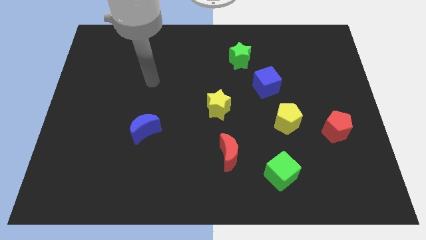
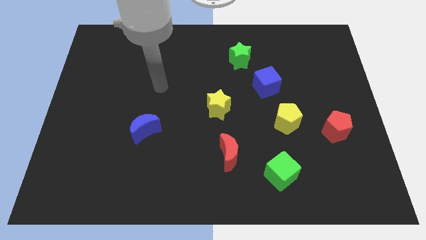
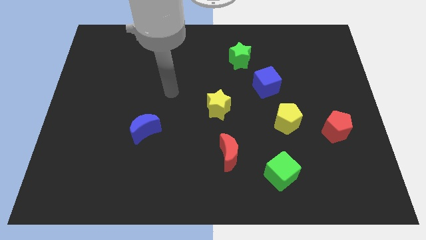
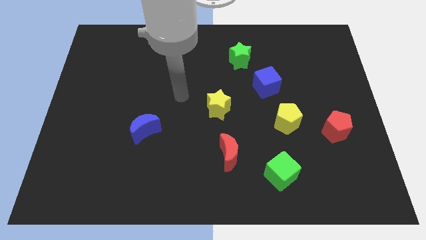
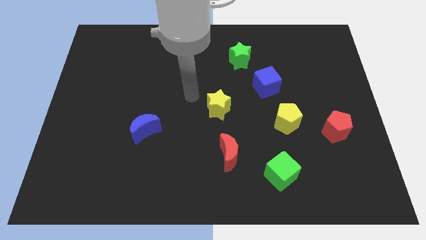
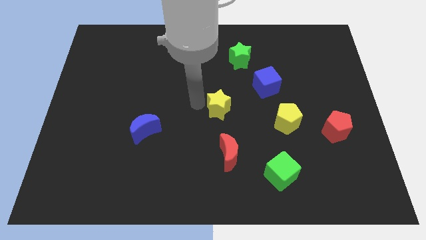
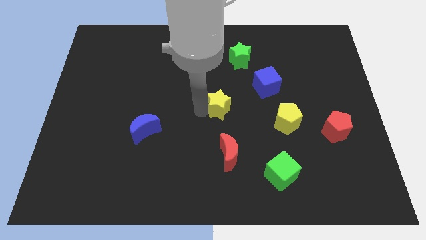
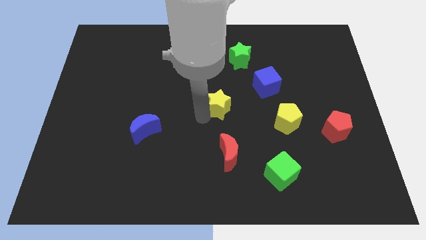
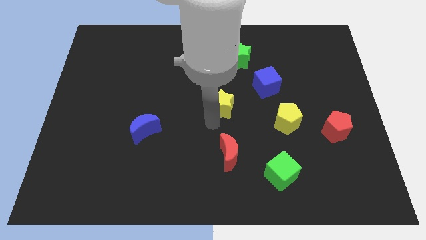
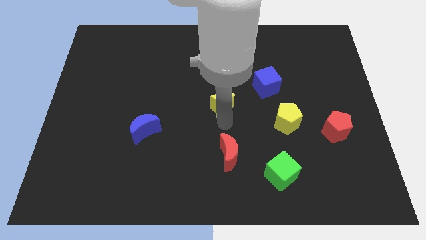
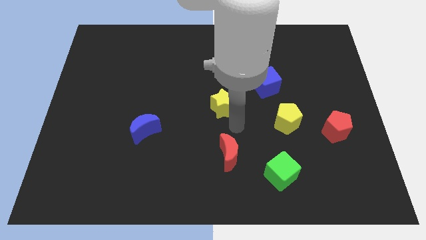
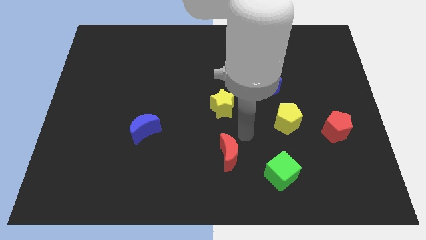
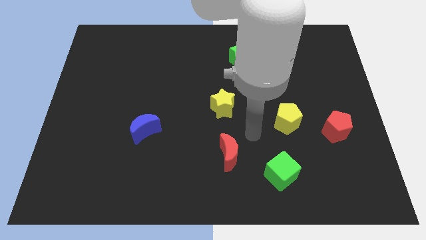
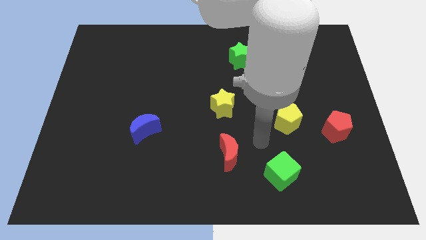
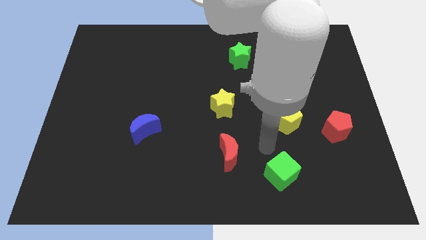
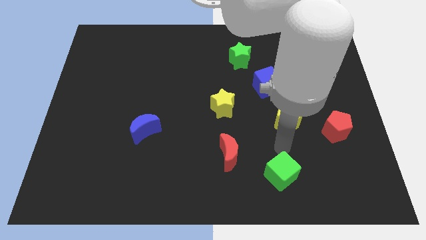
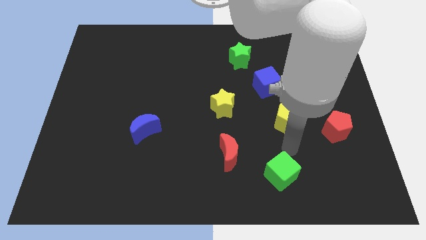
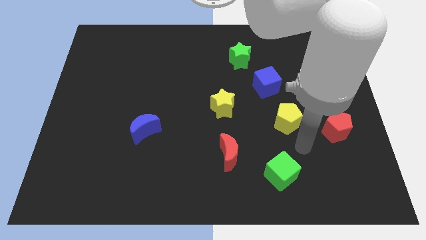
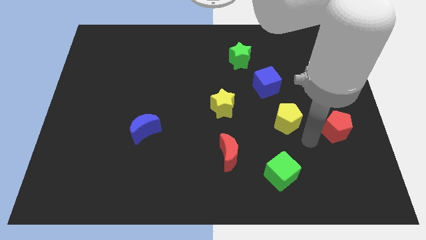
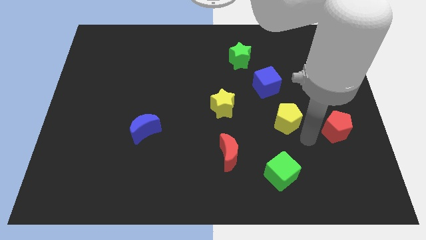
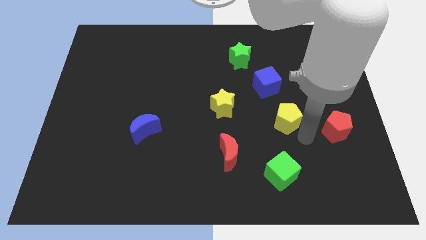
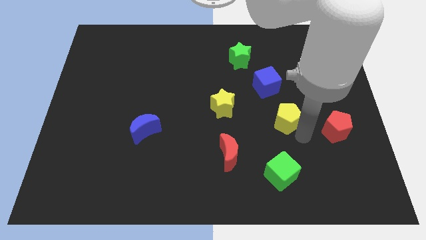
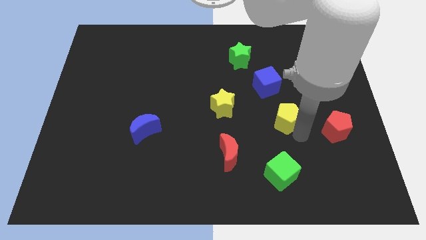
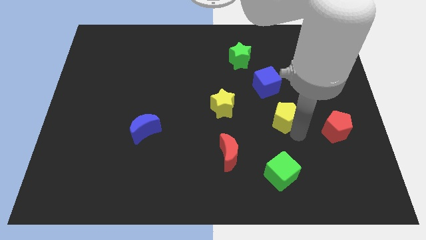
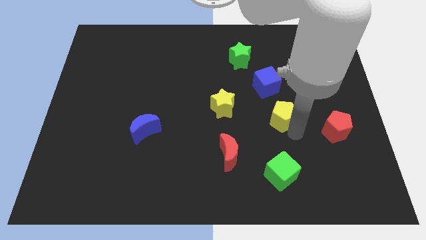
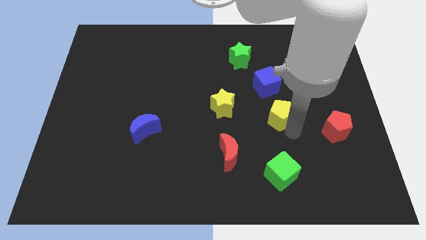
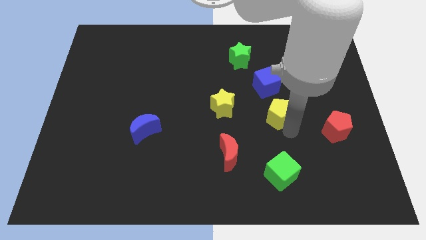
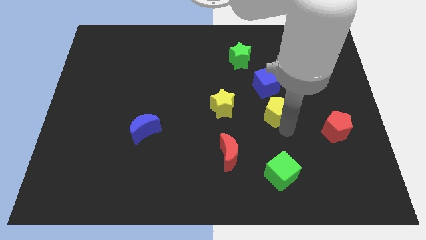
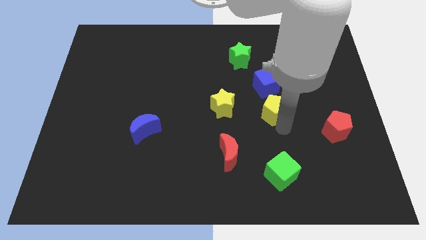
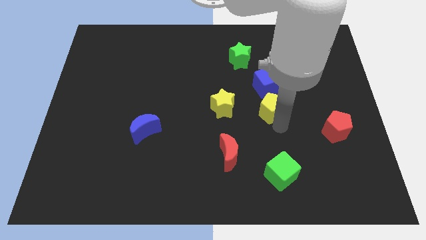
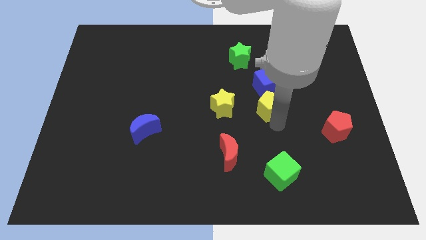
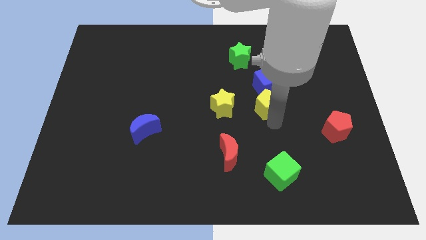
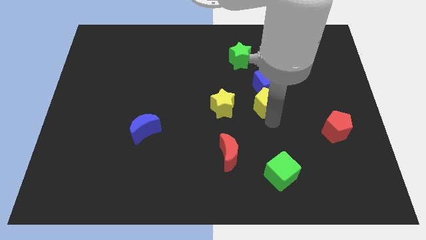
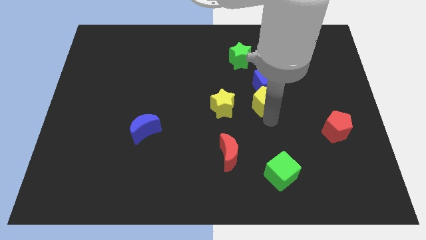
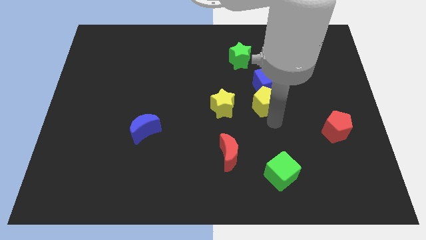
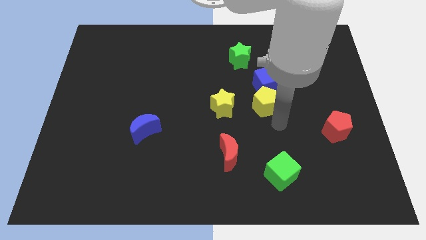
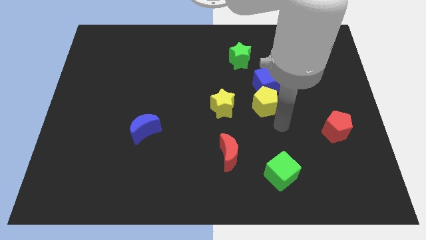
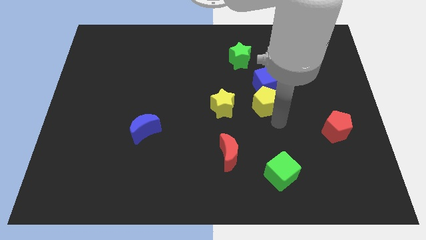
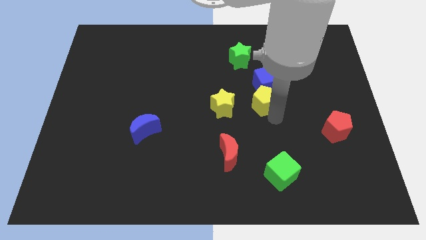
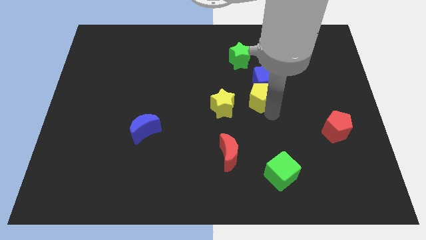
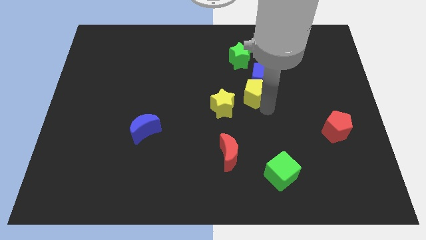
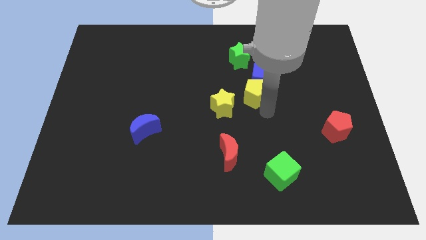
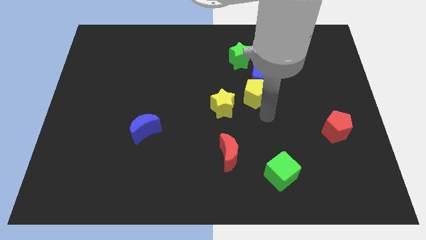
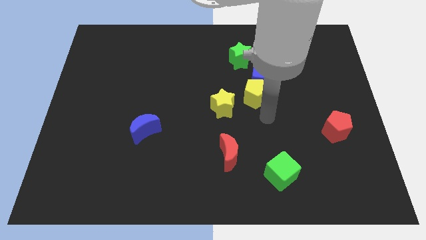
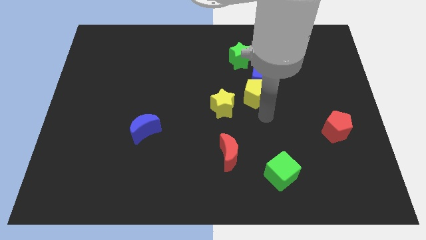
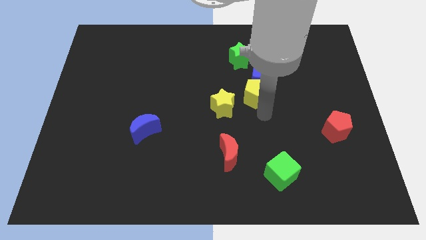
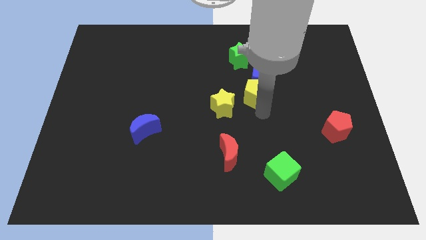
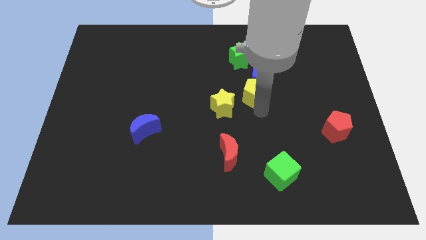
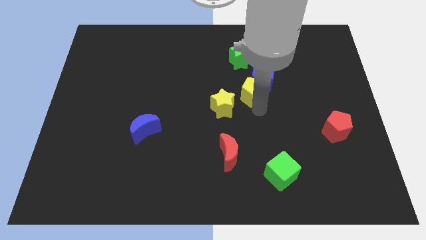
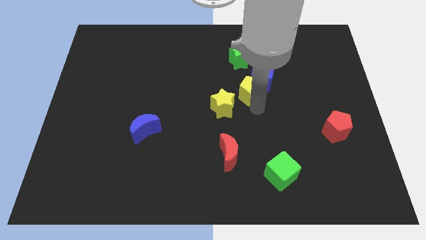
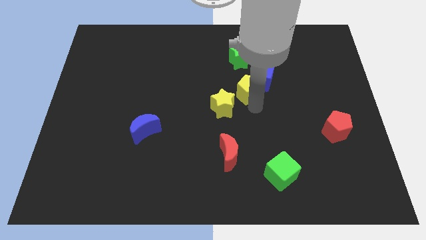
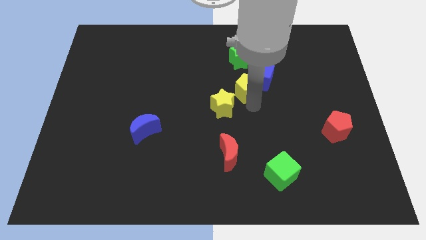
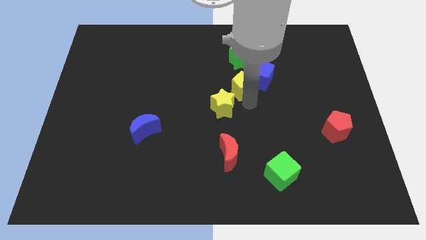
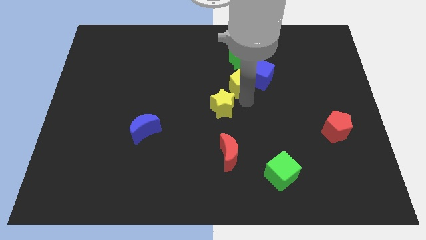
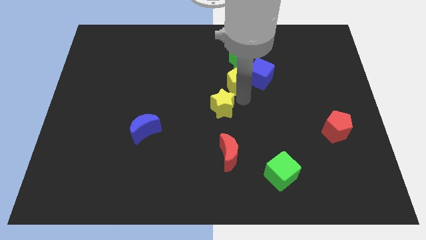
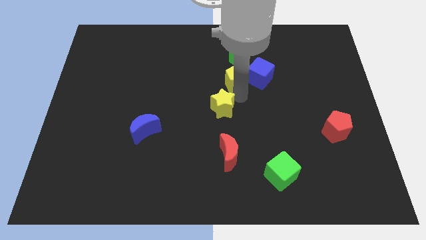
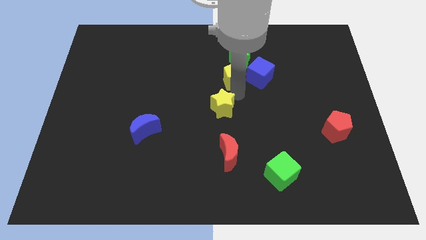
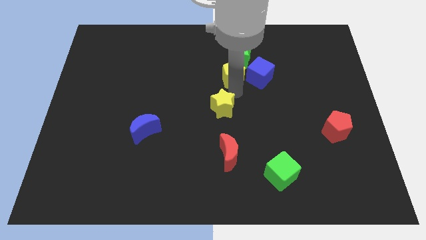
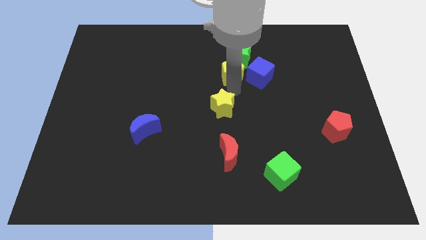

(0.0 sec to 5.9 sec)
push the yellow pentagon towards the green star
